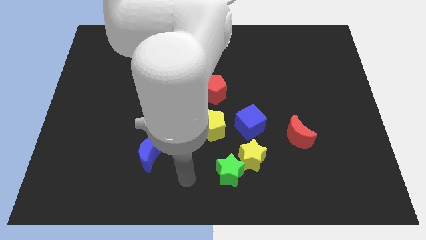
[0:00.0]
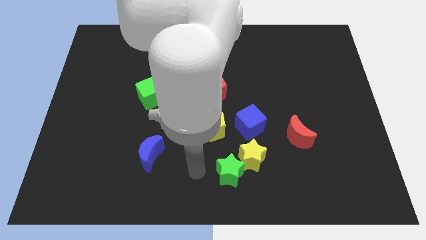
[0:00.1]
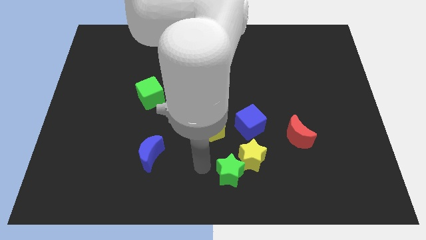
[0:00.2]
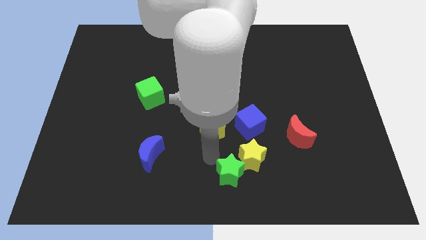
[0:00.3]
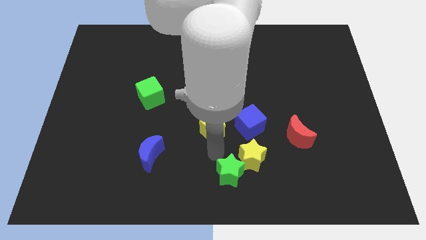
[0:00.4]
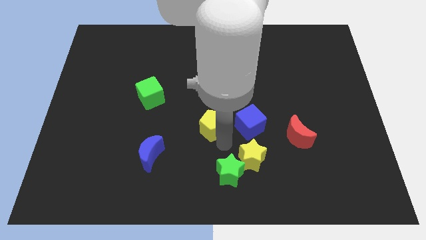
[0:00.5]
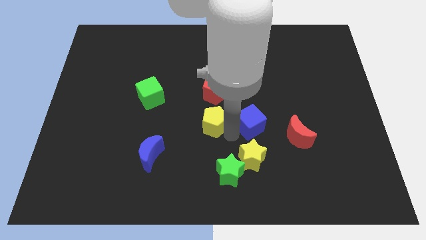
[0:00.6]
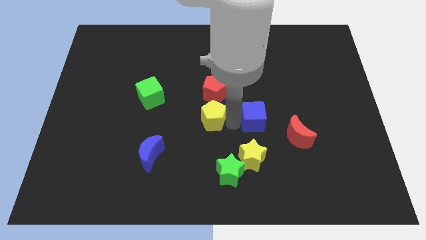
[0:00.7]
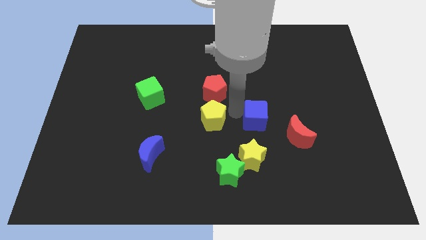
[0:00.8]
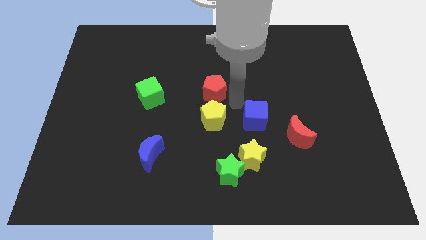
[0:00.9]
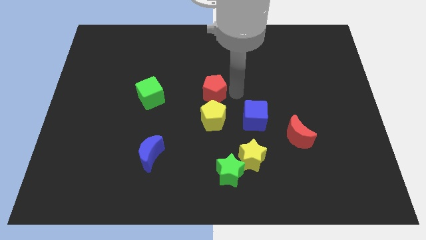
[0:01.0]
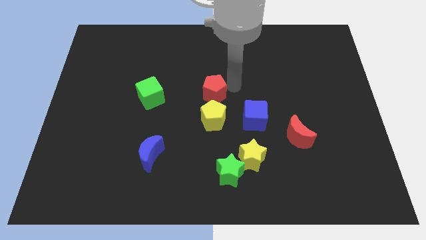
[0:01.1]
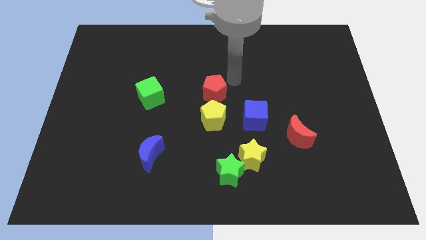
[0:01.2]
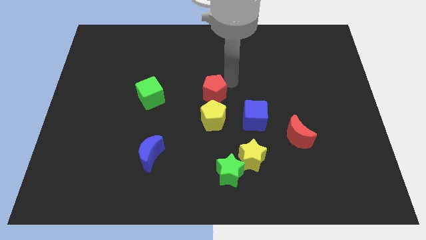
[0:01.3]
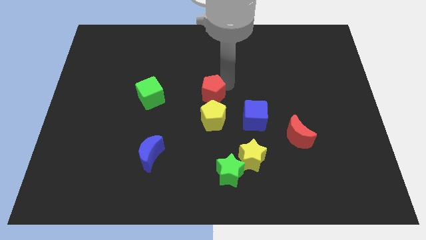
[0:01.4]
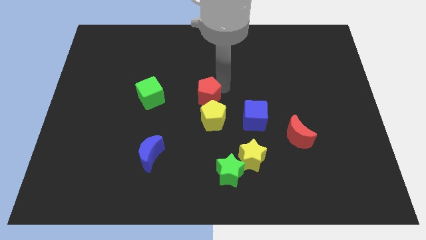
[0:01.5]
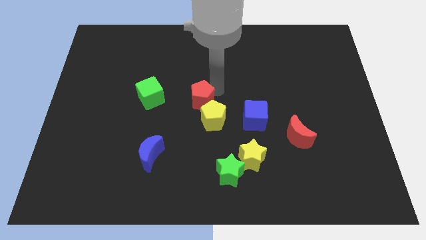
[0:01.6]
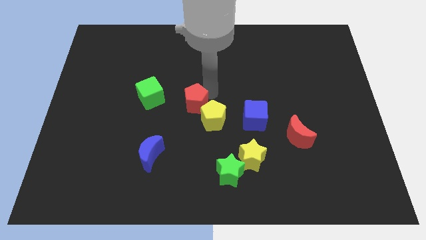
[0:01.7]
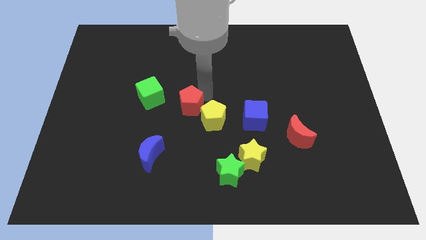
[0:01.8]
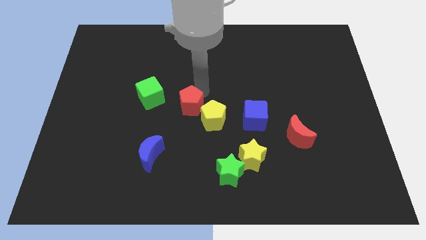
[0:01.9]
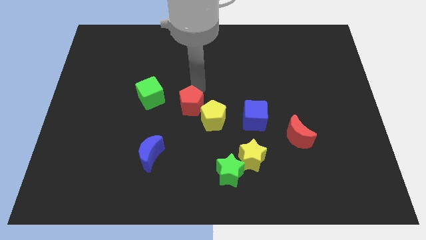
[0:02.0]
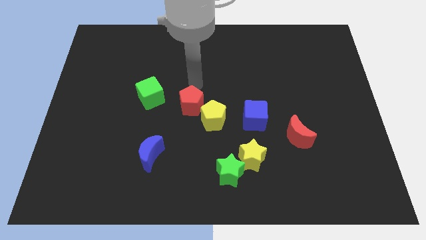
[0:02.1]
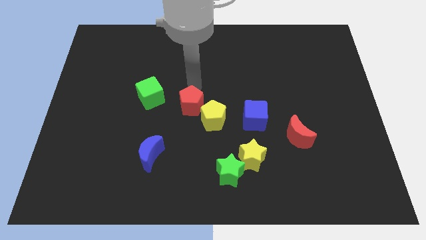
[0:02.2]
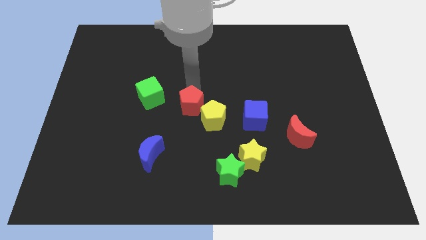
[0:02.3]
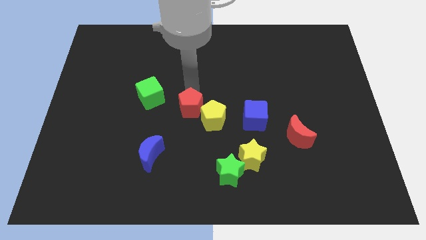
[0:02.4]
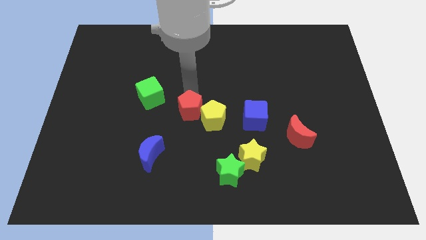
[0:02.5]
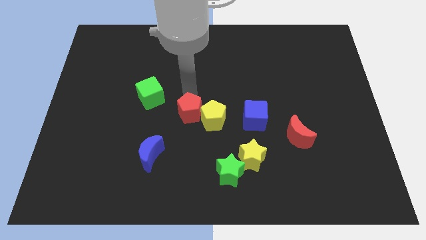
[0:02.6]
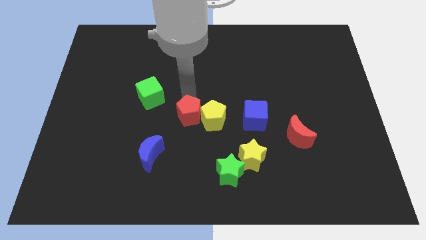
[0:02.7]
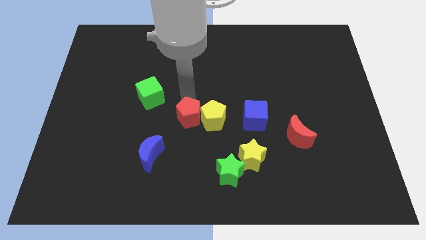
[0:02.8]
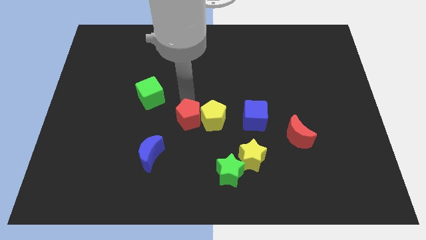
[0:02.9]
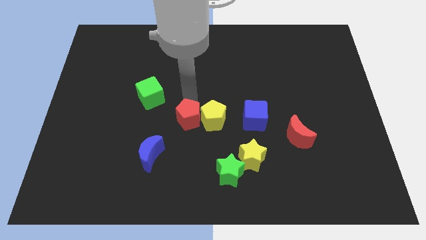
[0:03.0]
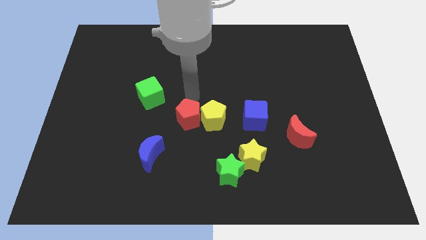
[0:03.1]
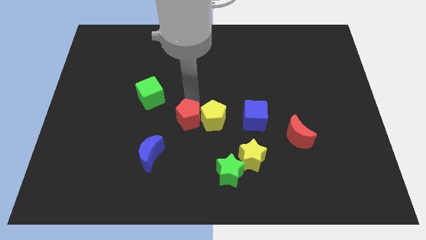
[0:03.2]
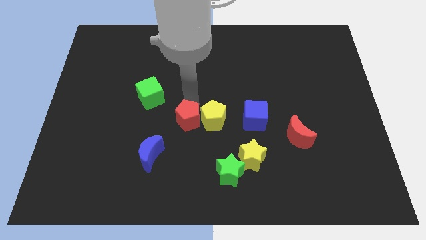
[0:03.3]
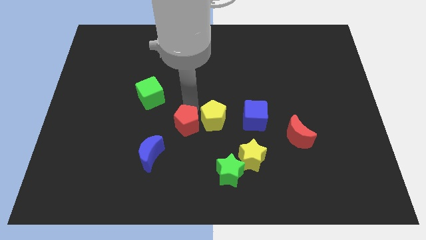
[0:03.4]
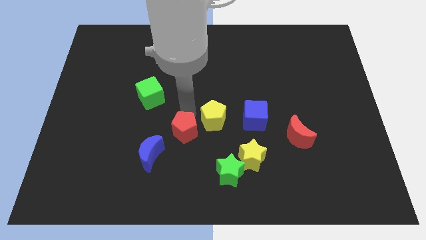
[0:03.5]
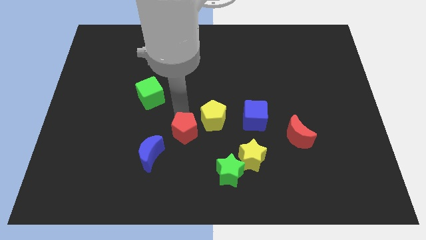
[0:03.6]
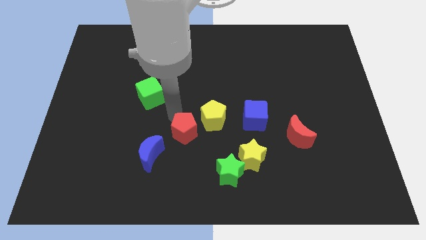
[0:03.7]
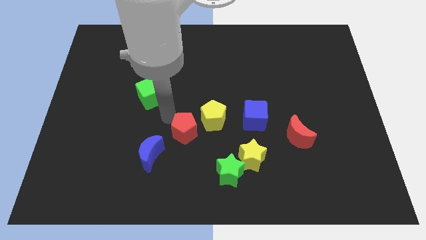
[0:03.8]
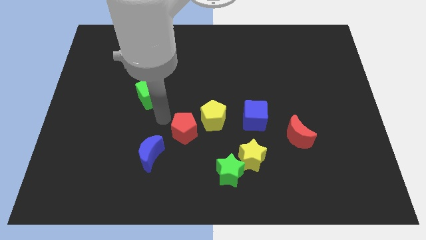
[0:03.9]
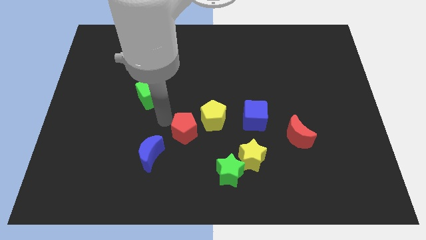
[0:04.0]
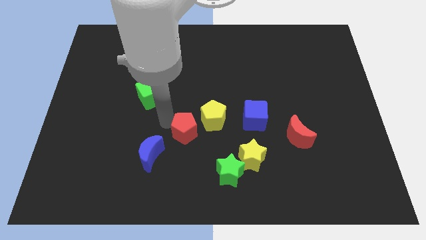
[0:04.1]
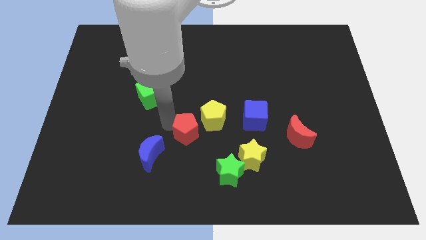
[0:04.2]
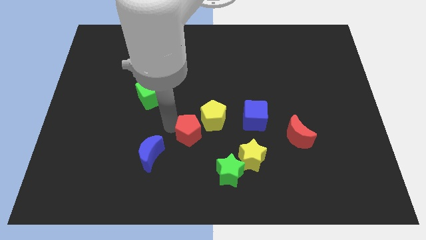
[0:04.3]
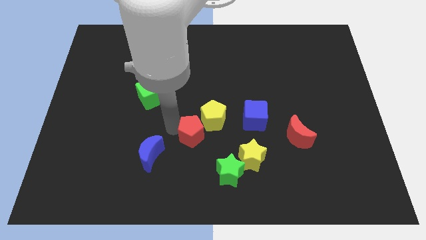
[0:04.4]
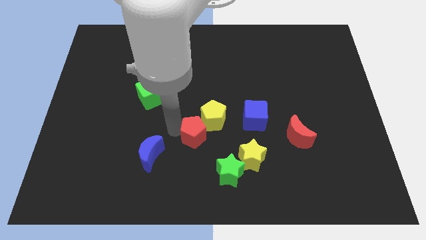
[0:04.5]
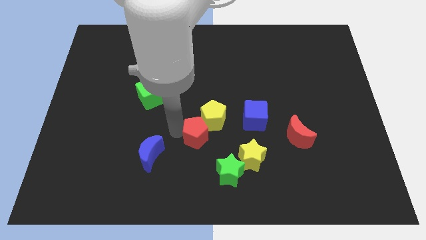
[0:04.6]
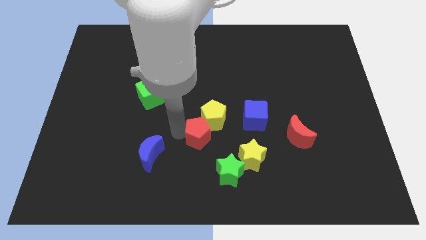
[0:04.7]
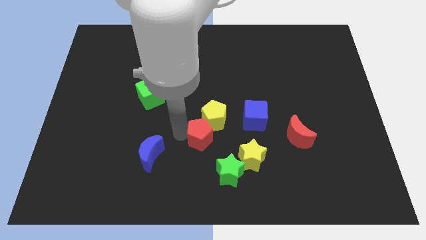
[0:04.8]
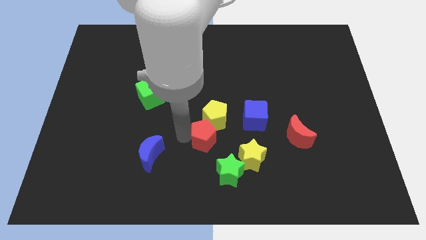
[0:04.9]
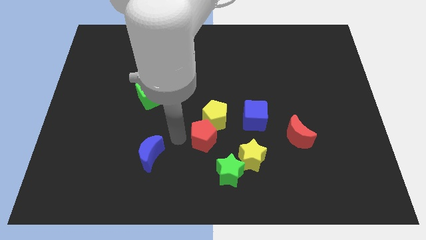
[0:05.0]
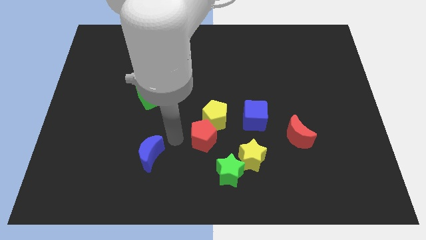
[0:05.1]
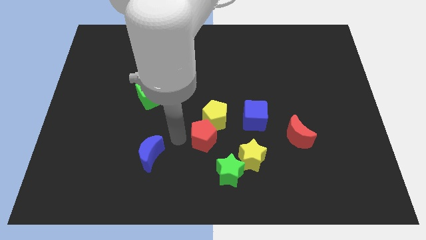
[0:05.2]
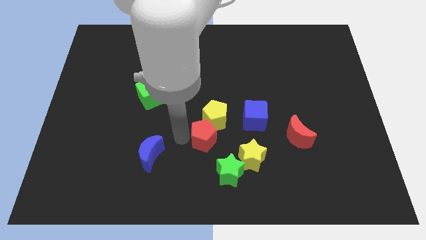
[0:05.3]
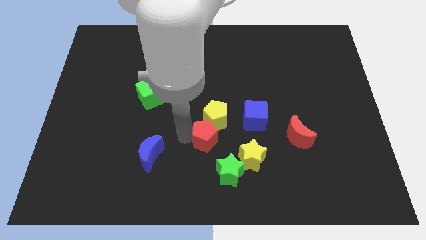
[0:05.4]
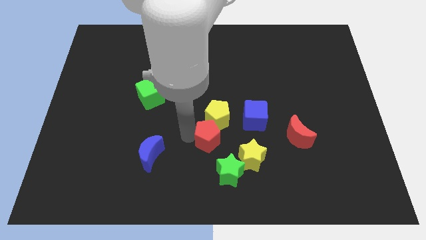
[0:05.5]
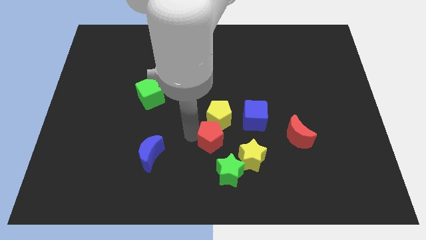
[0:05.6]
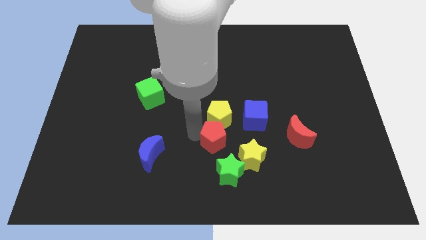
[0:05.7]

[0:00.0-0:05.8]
move the red pentagon to the bottom right of the yellow pentagon
